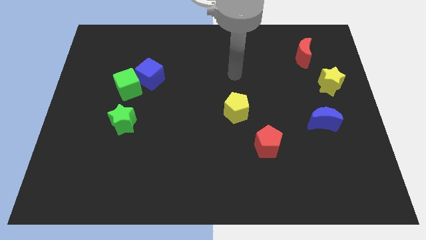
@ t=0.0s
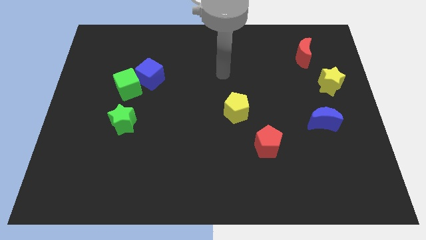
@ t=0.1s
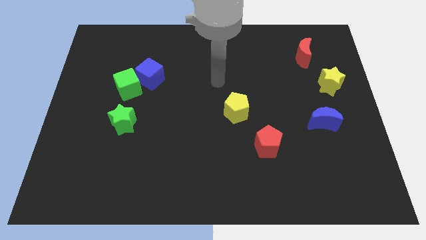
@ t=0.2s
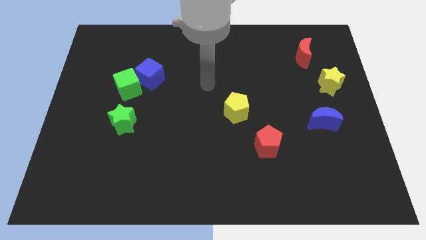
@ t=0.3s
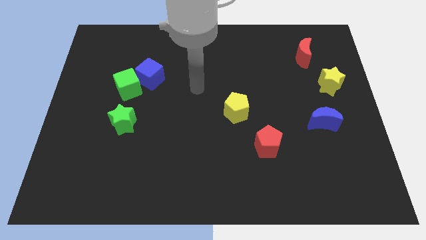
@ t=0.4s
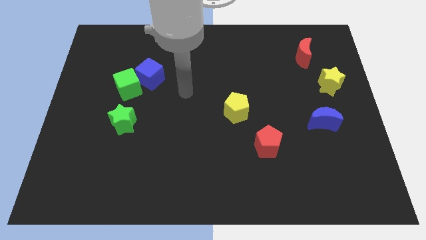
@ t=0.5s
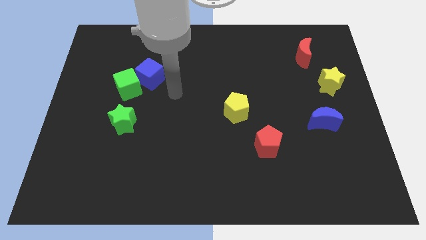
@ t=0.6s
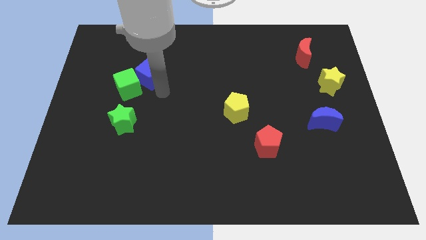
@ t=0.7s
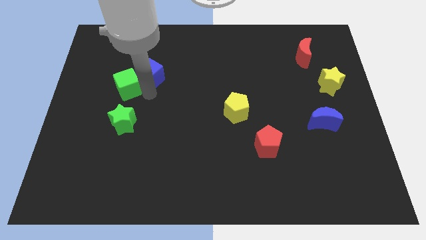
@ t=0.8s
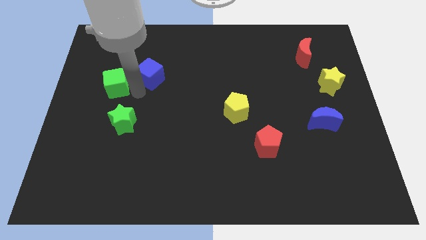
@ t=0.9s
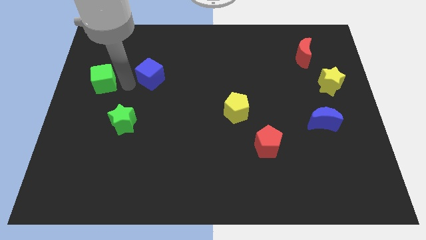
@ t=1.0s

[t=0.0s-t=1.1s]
move the blue cube away from the green cube

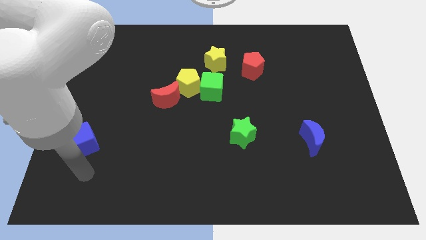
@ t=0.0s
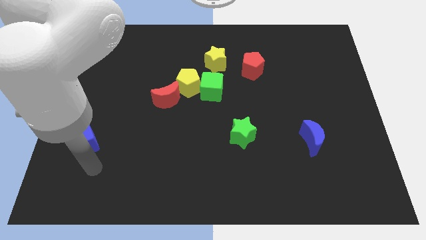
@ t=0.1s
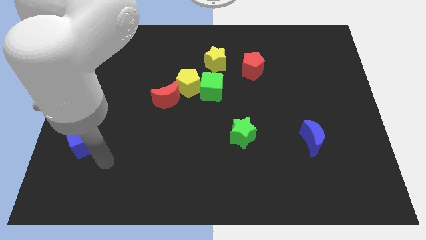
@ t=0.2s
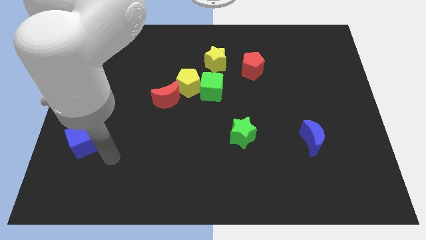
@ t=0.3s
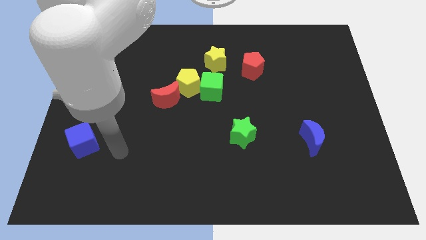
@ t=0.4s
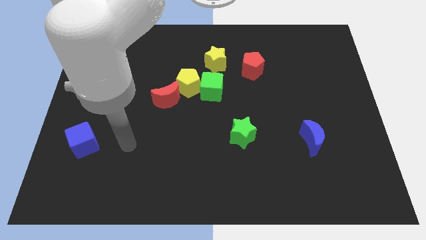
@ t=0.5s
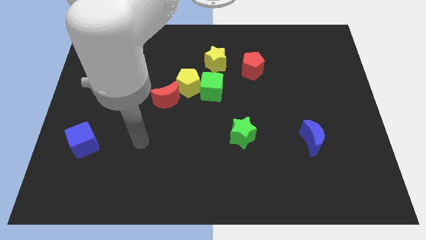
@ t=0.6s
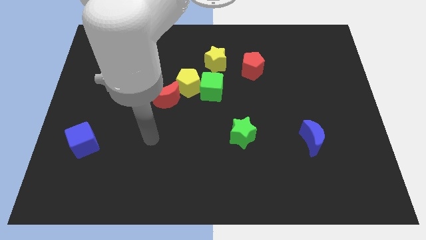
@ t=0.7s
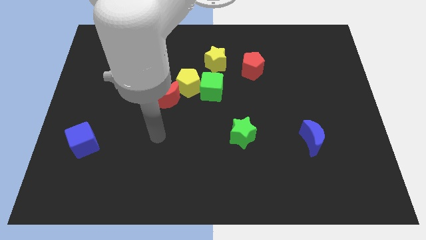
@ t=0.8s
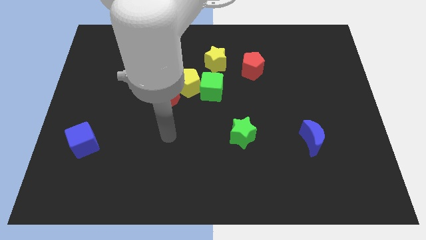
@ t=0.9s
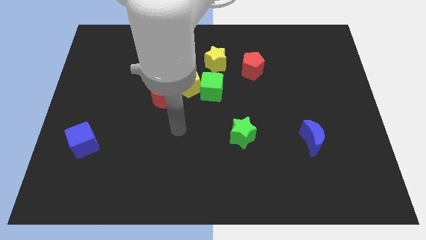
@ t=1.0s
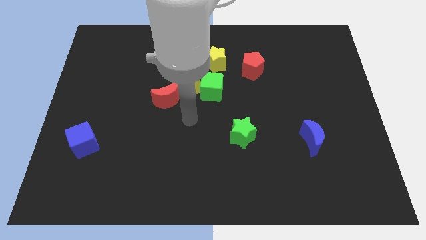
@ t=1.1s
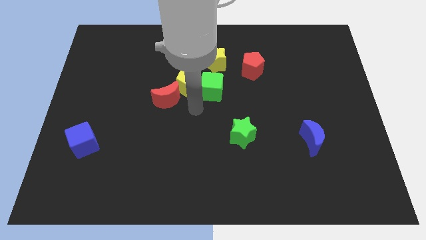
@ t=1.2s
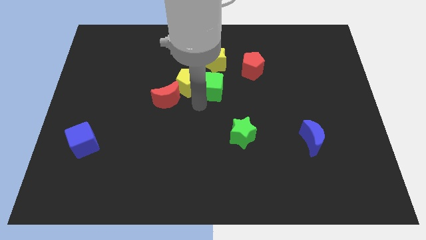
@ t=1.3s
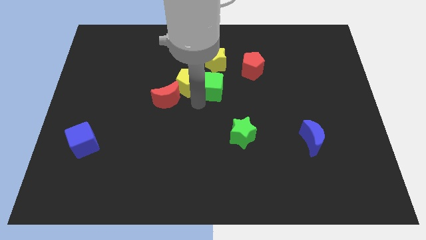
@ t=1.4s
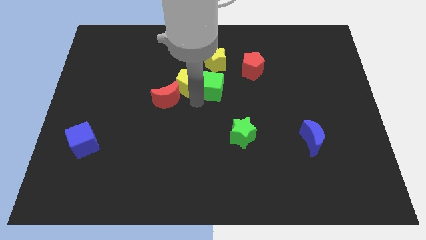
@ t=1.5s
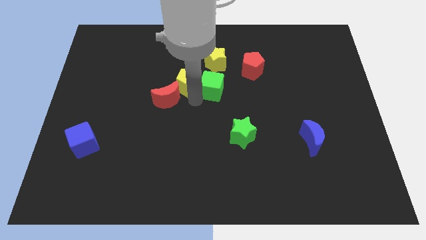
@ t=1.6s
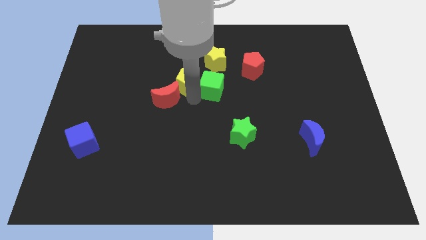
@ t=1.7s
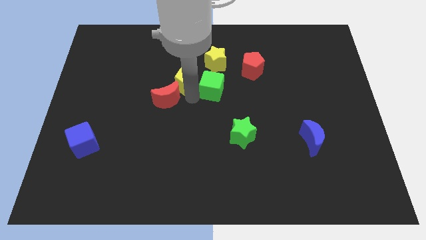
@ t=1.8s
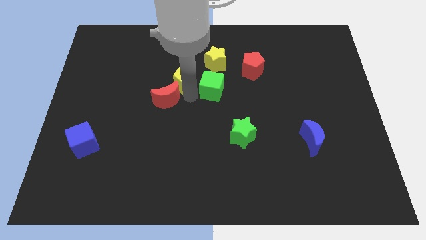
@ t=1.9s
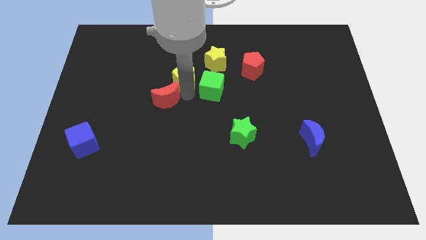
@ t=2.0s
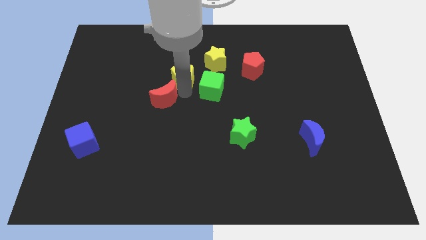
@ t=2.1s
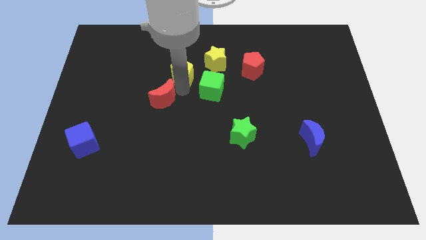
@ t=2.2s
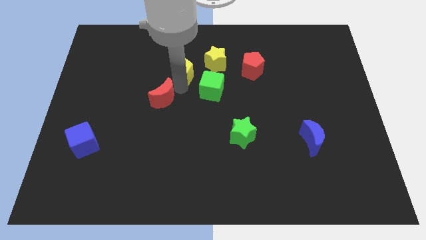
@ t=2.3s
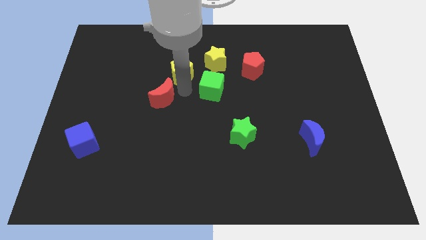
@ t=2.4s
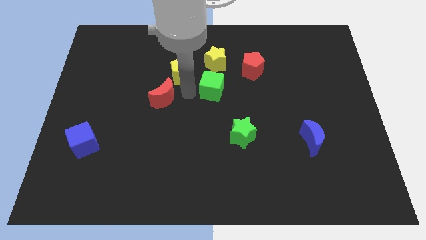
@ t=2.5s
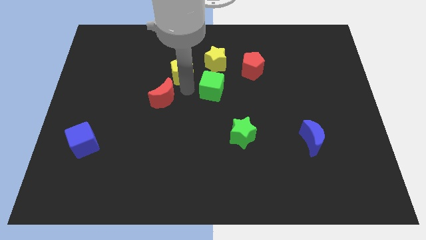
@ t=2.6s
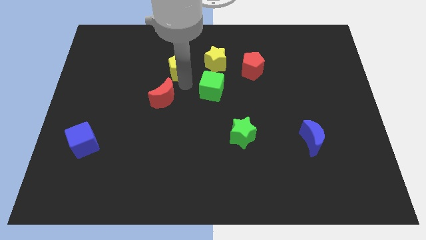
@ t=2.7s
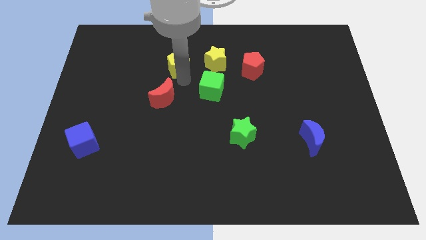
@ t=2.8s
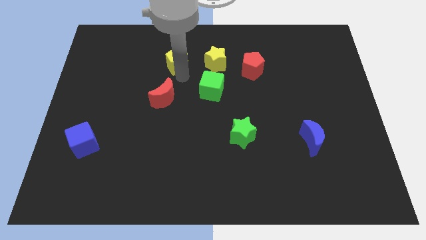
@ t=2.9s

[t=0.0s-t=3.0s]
pull the yellow pentagon apart from the green cube and red moon

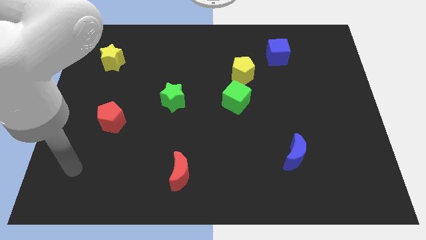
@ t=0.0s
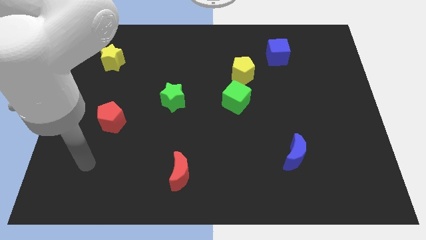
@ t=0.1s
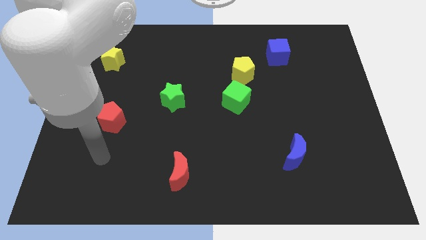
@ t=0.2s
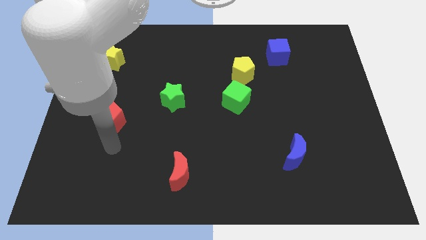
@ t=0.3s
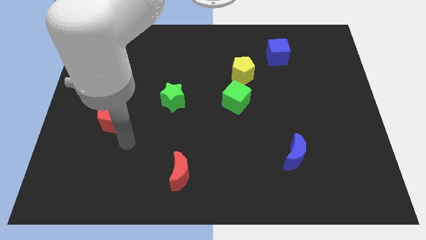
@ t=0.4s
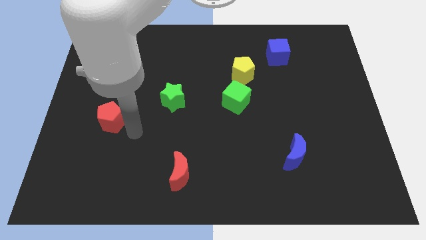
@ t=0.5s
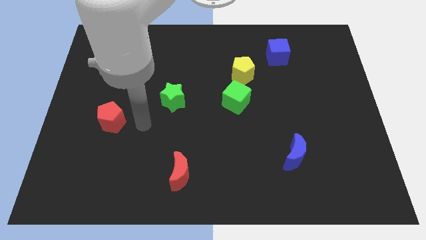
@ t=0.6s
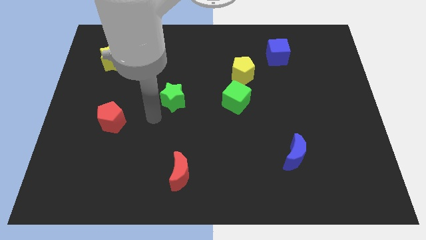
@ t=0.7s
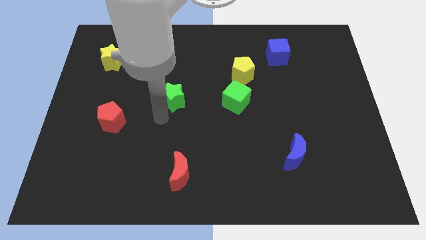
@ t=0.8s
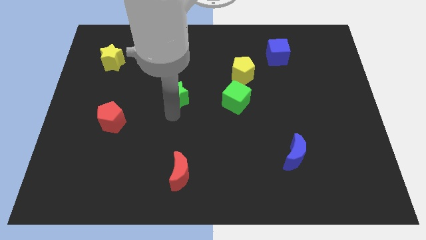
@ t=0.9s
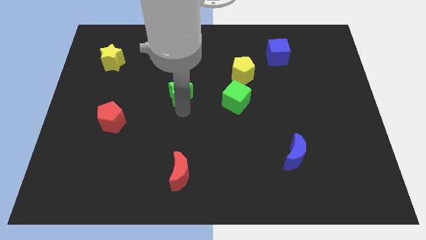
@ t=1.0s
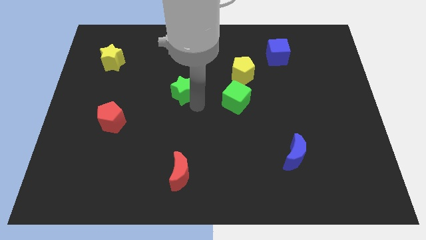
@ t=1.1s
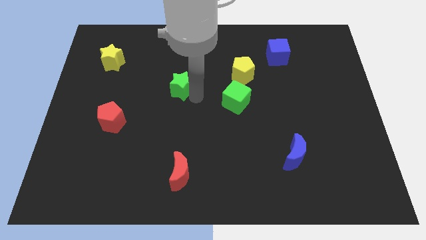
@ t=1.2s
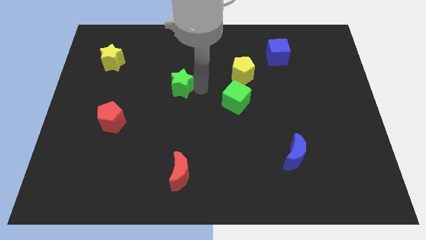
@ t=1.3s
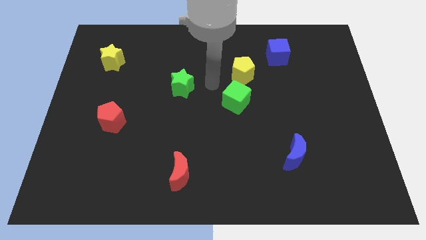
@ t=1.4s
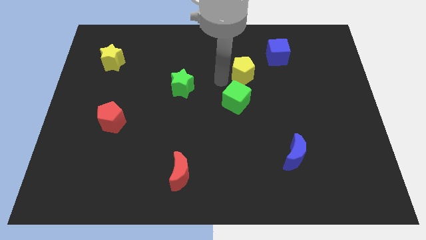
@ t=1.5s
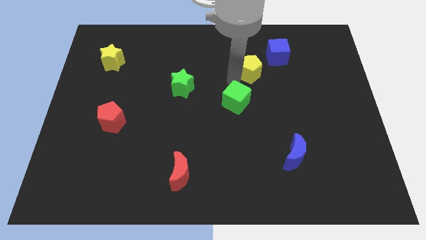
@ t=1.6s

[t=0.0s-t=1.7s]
pull the green cube apart from the yellow pentagon

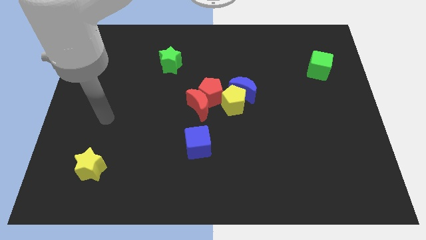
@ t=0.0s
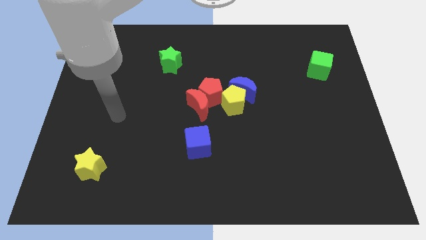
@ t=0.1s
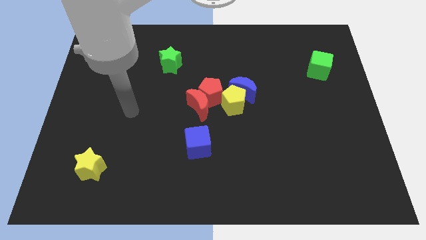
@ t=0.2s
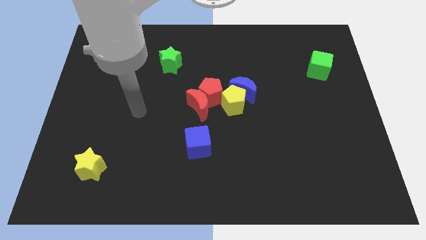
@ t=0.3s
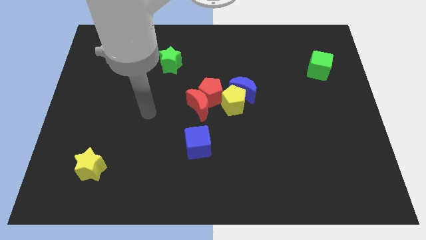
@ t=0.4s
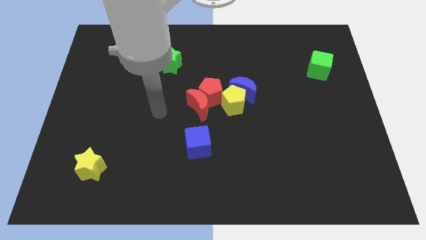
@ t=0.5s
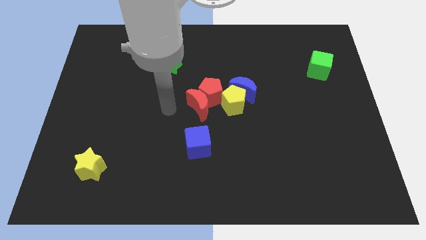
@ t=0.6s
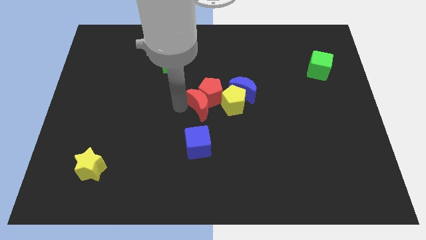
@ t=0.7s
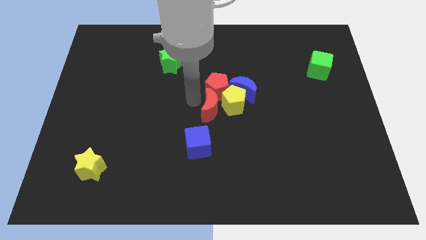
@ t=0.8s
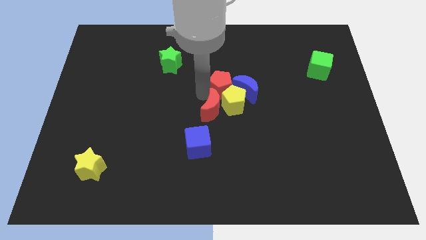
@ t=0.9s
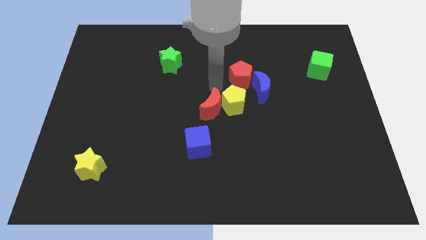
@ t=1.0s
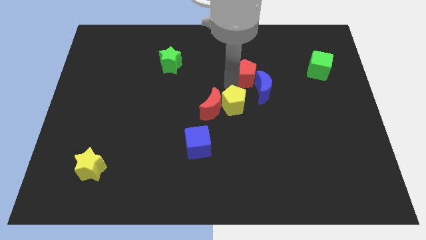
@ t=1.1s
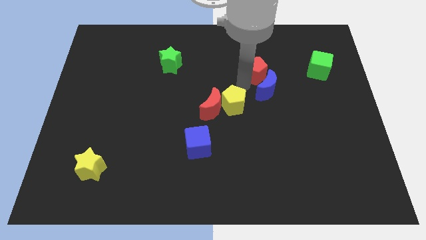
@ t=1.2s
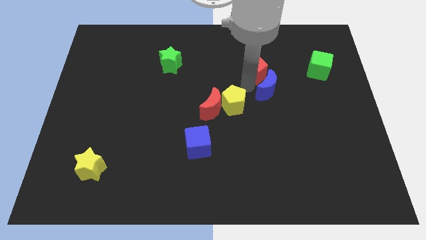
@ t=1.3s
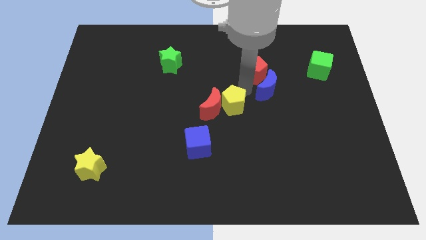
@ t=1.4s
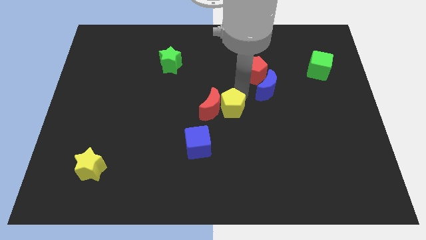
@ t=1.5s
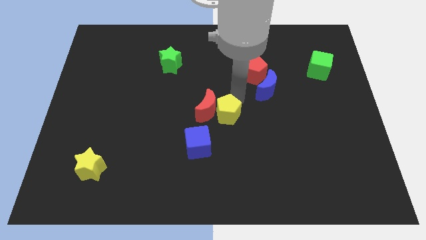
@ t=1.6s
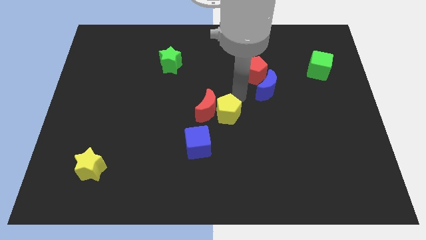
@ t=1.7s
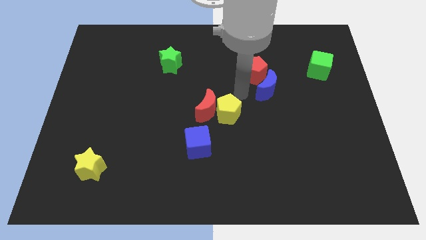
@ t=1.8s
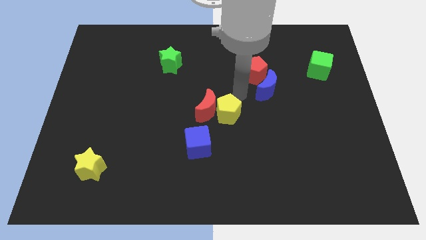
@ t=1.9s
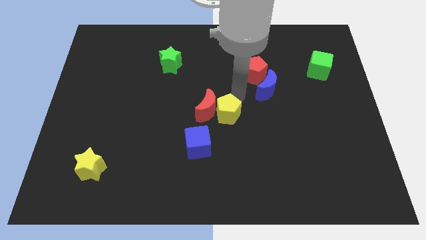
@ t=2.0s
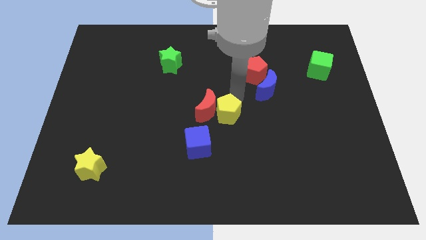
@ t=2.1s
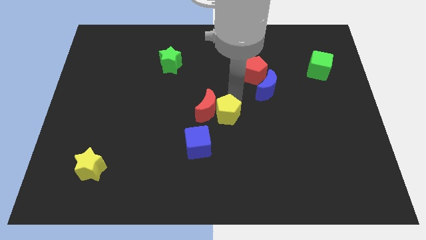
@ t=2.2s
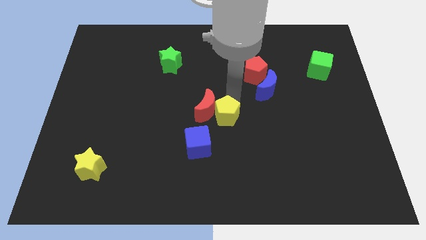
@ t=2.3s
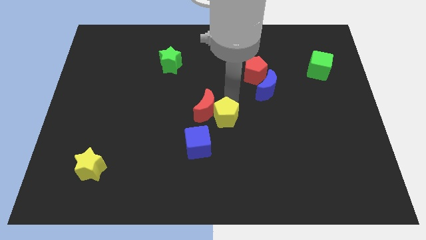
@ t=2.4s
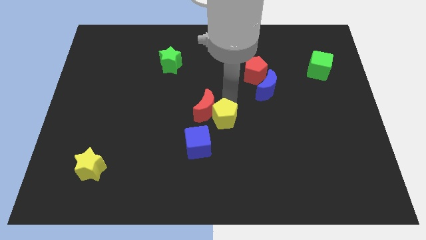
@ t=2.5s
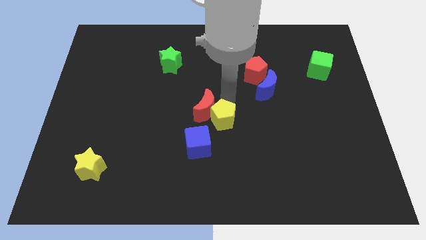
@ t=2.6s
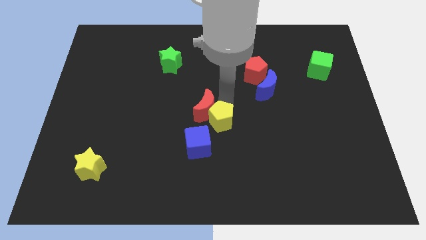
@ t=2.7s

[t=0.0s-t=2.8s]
separate the yellow pentagon from the blue moon, red pentagon, and red moon

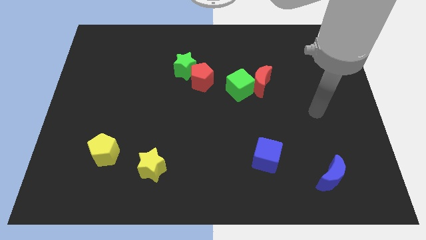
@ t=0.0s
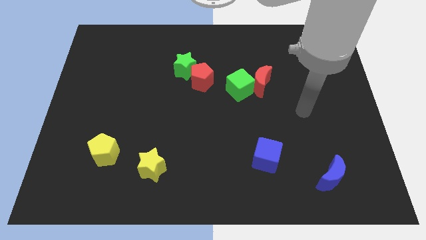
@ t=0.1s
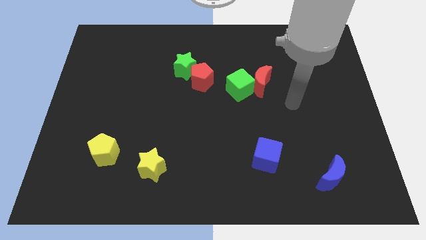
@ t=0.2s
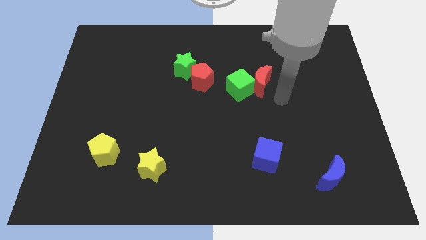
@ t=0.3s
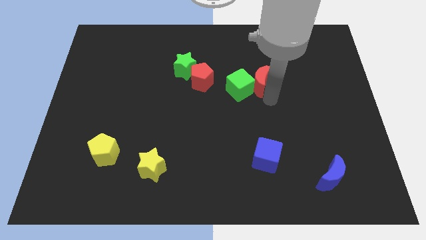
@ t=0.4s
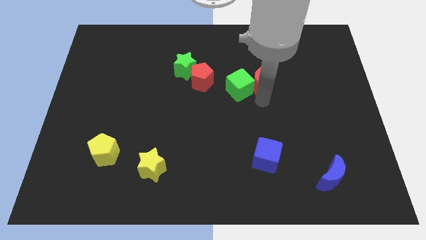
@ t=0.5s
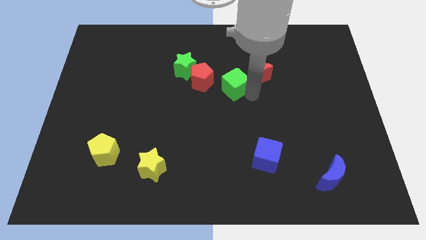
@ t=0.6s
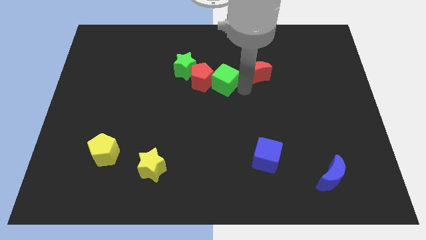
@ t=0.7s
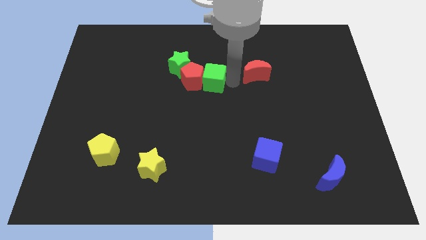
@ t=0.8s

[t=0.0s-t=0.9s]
move the red moon away from the green cube

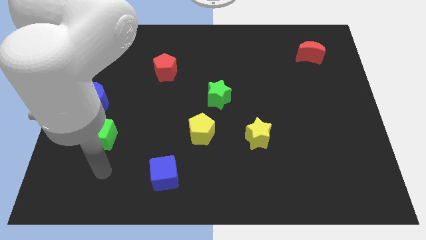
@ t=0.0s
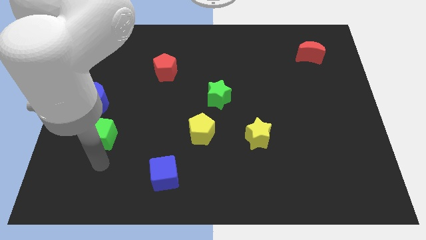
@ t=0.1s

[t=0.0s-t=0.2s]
separate the blue moon from the green cube
